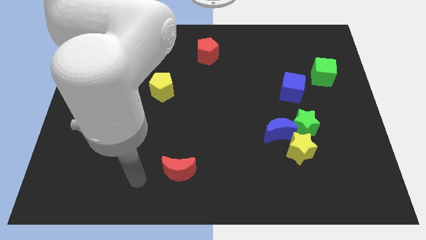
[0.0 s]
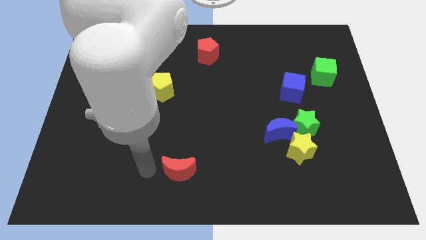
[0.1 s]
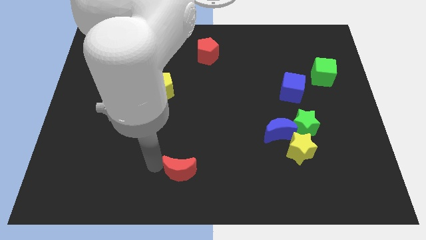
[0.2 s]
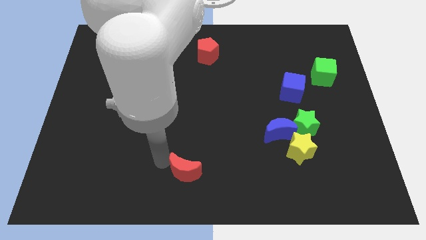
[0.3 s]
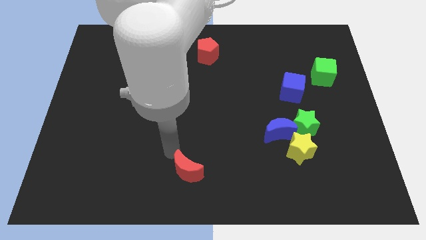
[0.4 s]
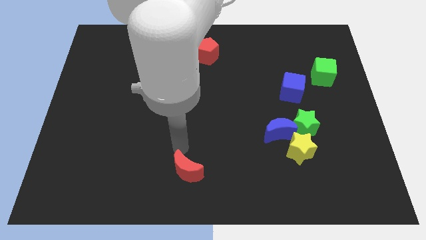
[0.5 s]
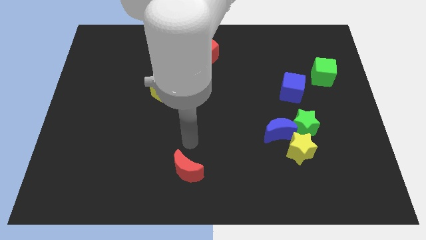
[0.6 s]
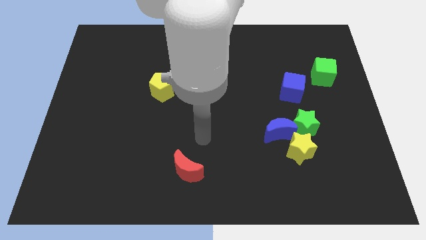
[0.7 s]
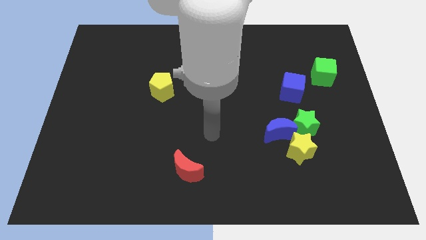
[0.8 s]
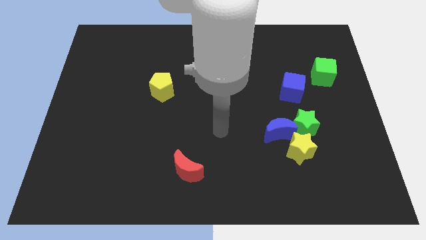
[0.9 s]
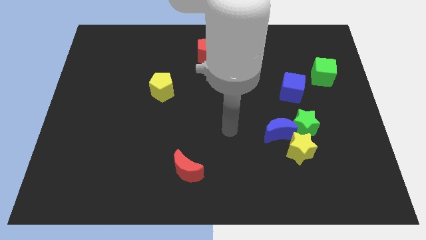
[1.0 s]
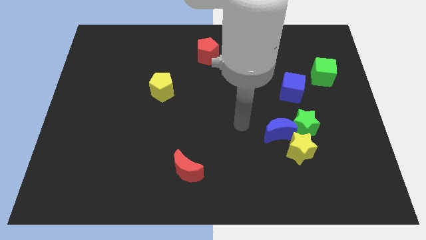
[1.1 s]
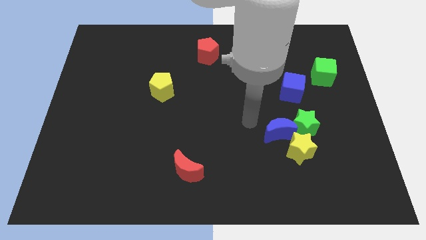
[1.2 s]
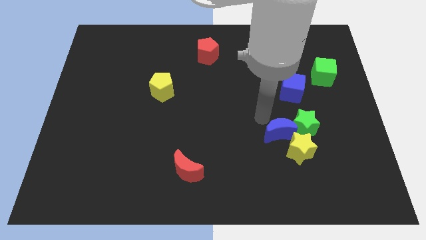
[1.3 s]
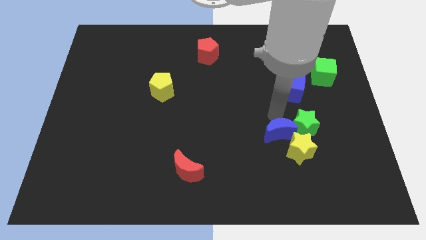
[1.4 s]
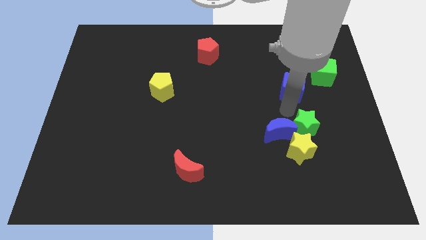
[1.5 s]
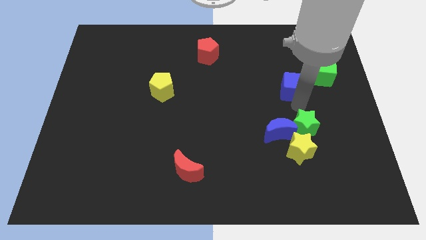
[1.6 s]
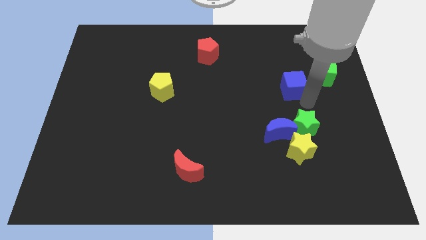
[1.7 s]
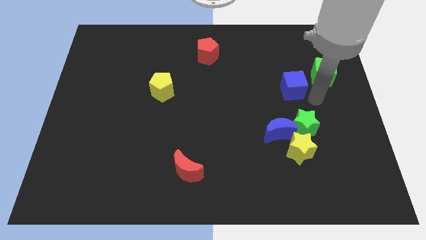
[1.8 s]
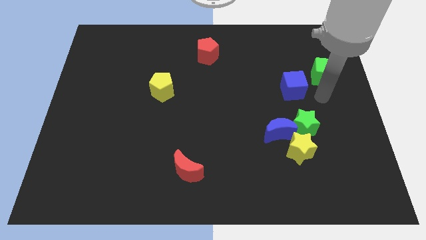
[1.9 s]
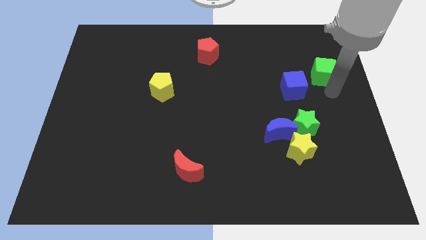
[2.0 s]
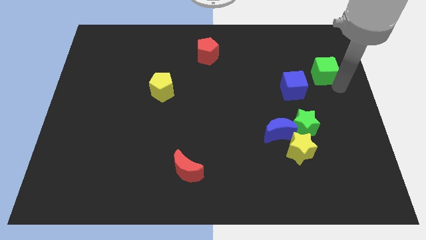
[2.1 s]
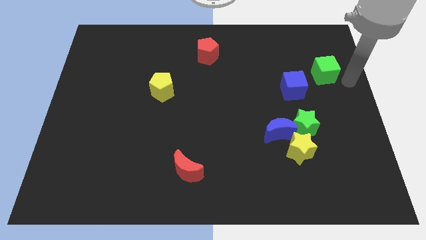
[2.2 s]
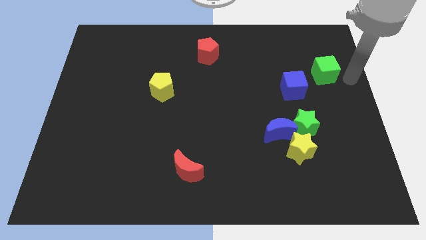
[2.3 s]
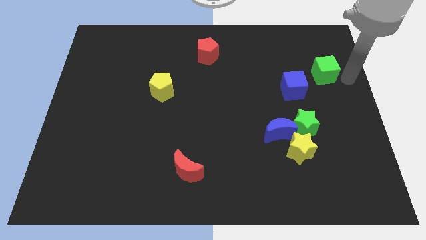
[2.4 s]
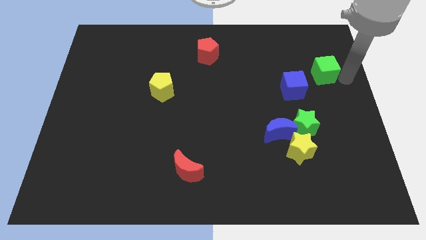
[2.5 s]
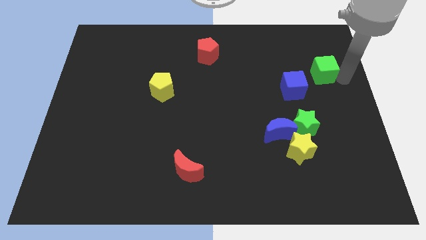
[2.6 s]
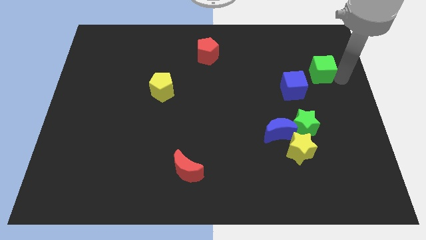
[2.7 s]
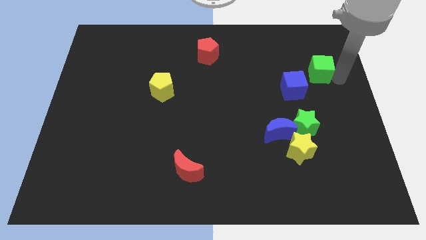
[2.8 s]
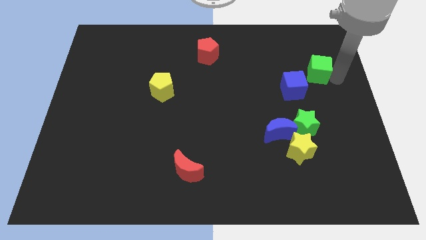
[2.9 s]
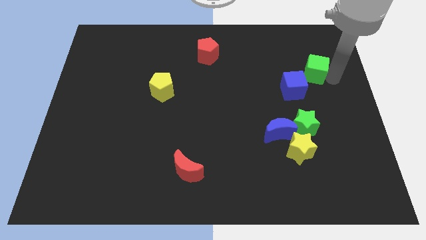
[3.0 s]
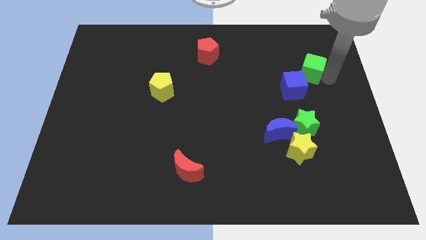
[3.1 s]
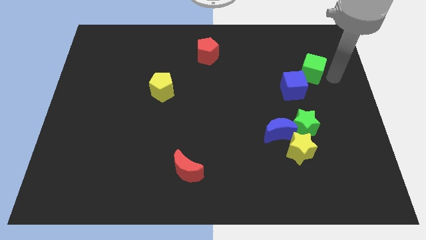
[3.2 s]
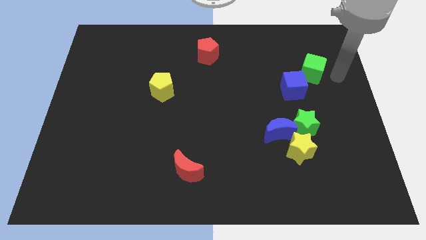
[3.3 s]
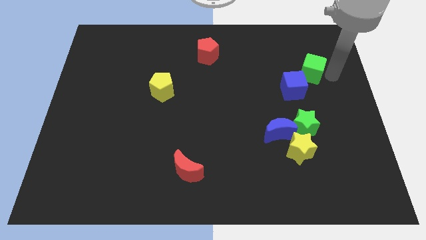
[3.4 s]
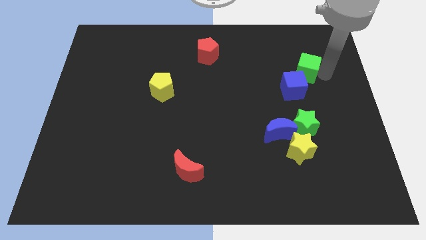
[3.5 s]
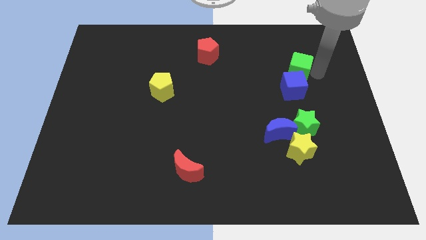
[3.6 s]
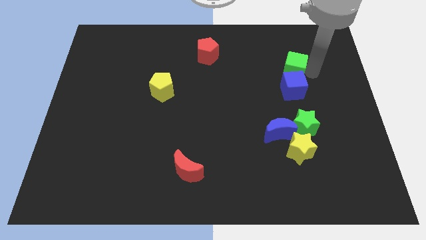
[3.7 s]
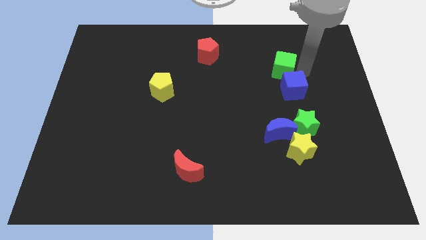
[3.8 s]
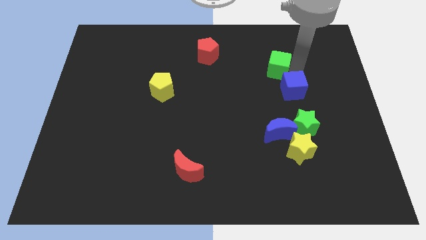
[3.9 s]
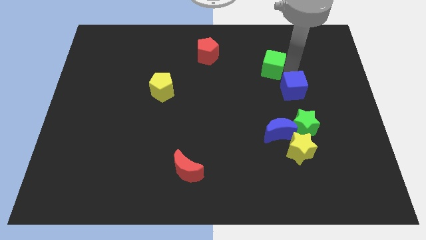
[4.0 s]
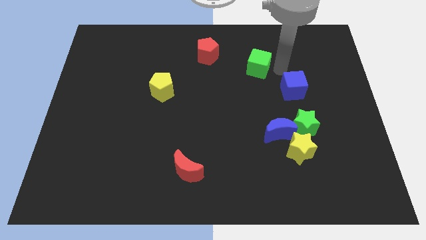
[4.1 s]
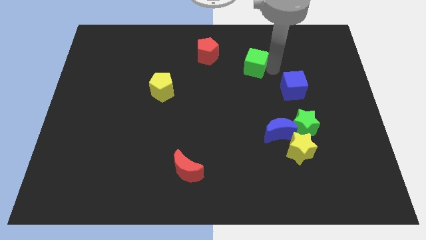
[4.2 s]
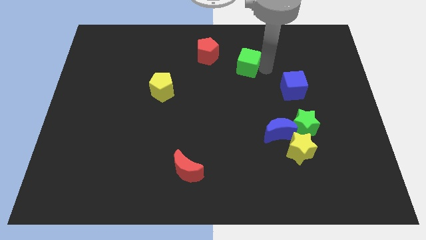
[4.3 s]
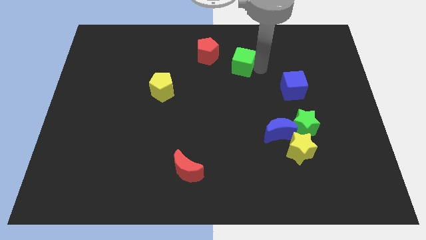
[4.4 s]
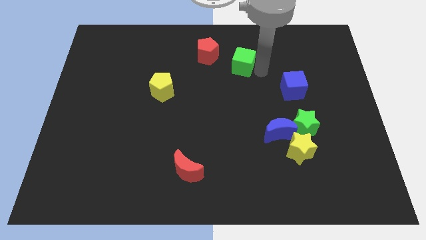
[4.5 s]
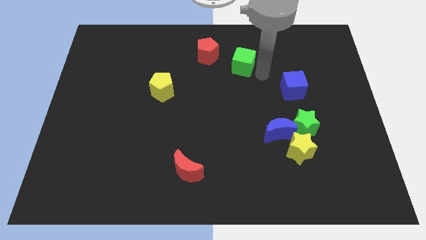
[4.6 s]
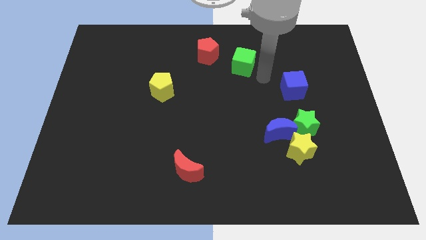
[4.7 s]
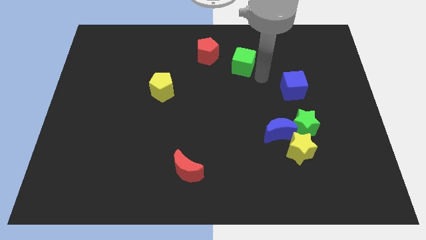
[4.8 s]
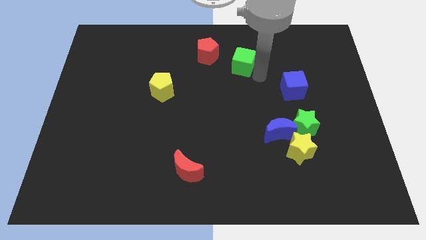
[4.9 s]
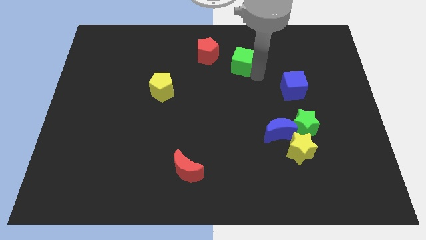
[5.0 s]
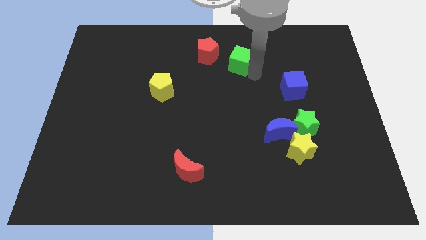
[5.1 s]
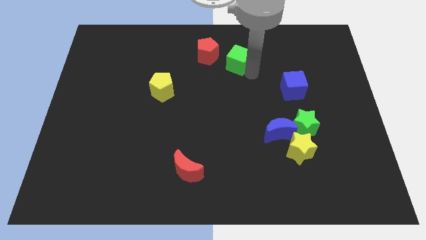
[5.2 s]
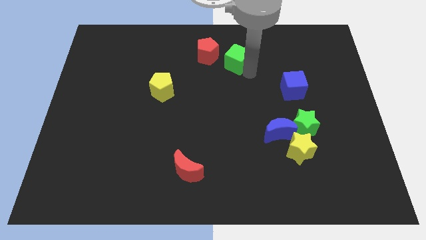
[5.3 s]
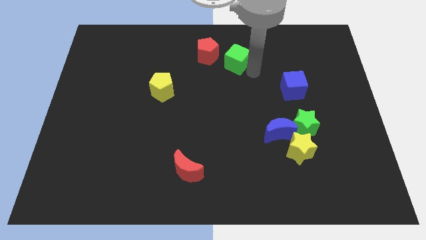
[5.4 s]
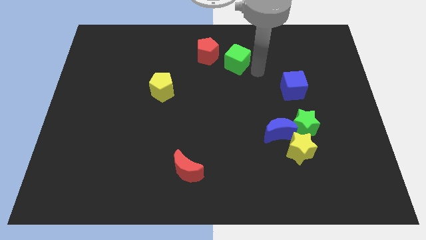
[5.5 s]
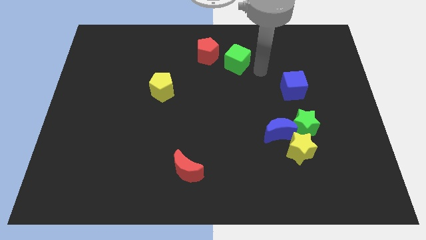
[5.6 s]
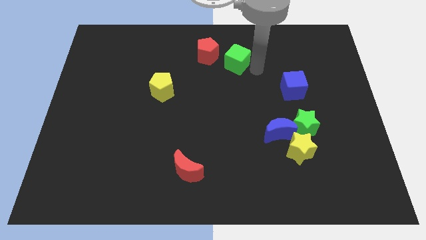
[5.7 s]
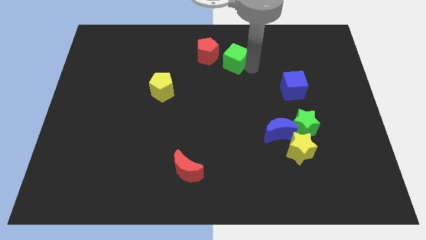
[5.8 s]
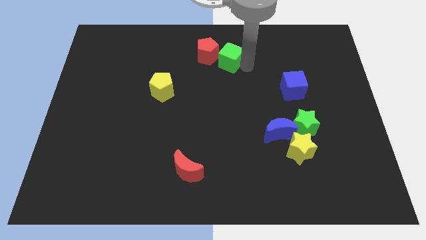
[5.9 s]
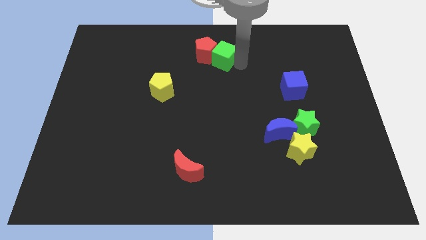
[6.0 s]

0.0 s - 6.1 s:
slide the green cube towards the red pentagon

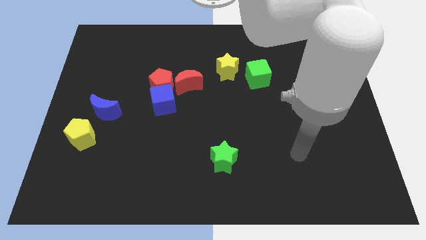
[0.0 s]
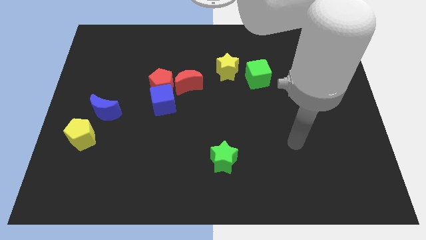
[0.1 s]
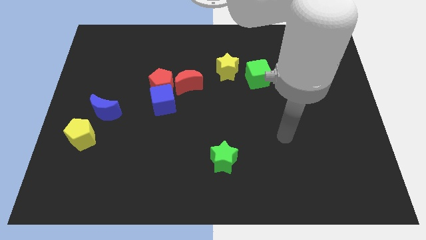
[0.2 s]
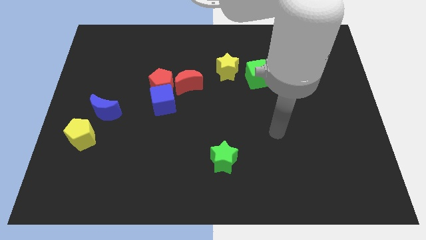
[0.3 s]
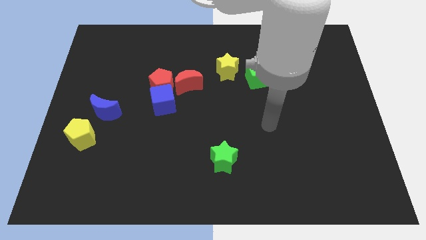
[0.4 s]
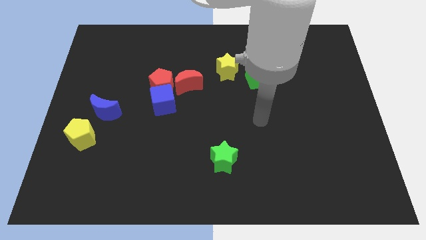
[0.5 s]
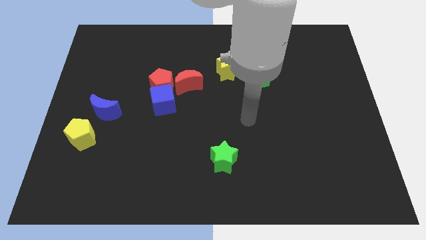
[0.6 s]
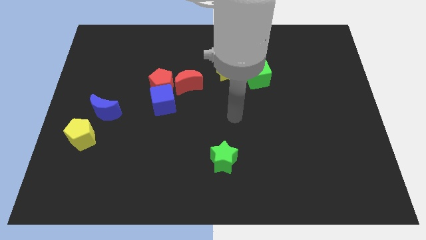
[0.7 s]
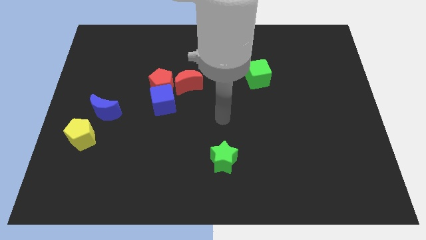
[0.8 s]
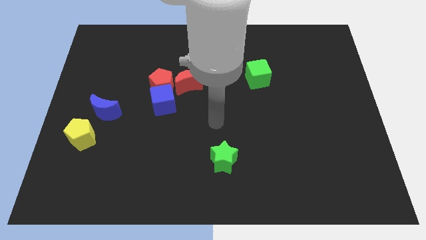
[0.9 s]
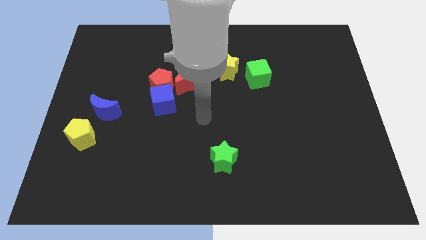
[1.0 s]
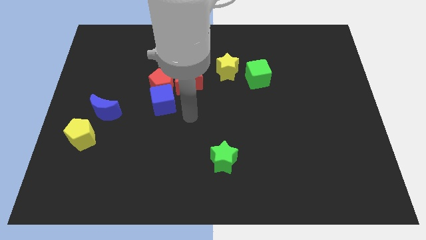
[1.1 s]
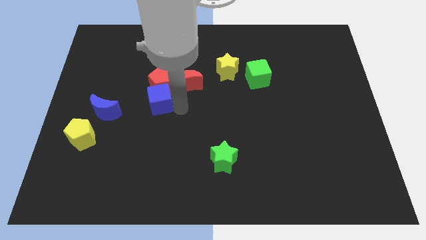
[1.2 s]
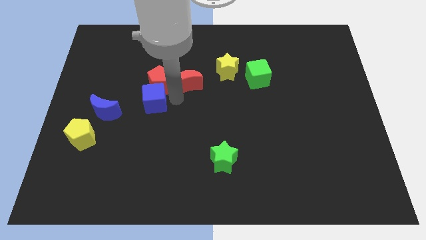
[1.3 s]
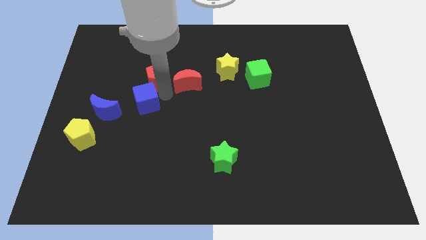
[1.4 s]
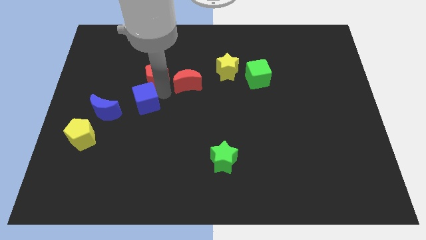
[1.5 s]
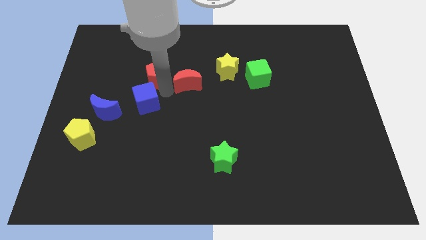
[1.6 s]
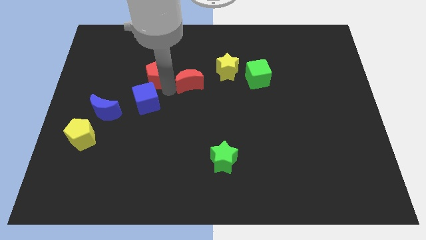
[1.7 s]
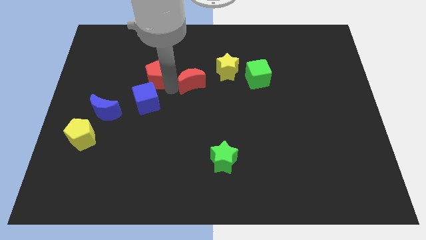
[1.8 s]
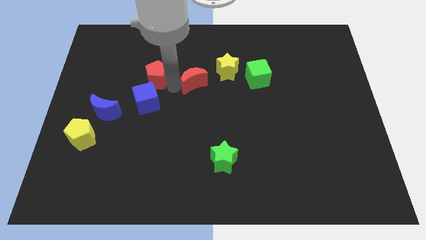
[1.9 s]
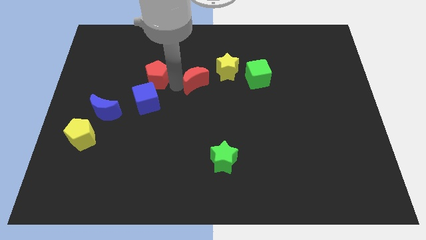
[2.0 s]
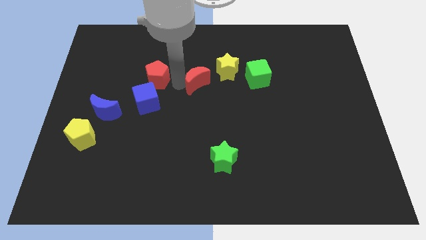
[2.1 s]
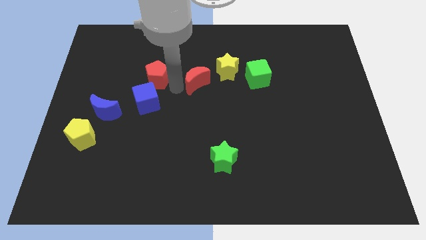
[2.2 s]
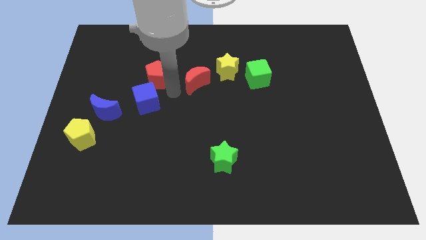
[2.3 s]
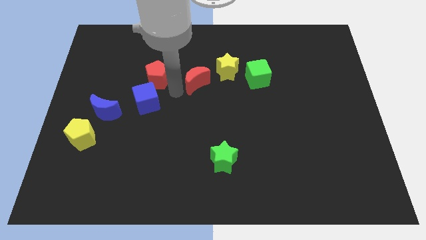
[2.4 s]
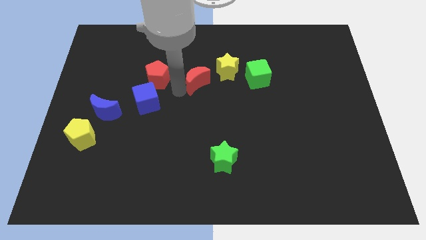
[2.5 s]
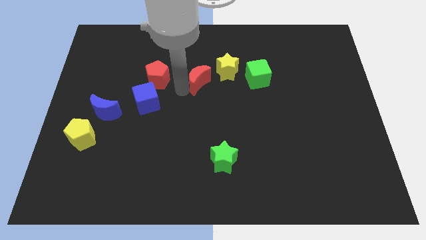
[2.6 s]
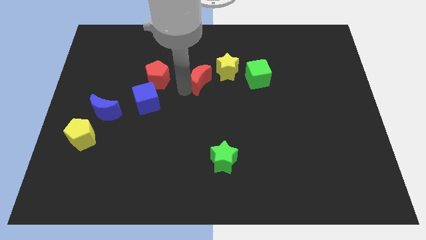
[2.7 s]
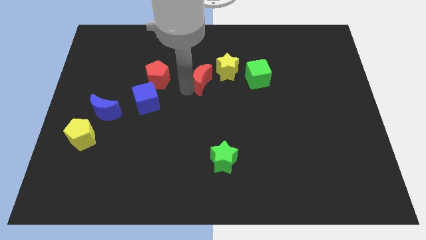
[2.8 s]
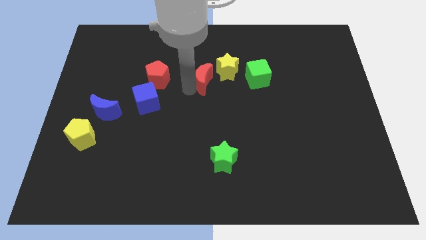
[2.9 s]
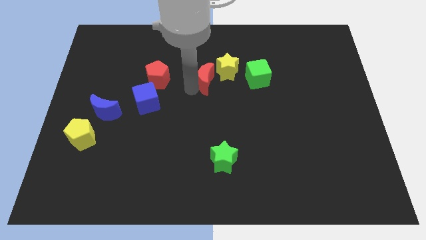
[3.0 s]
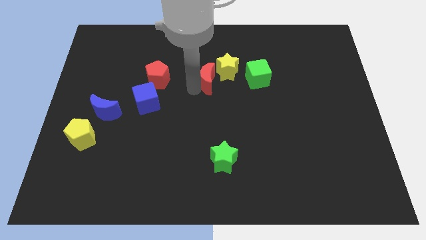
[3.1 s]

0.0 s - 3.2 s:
move the red moon close to the yellow star
